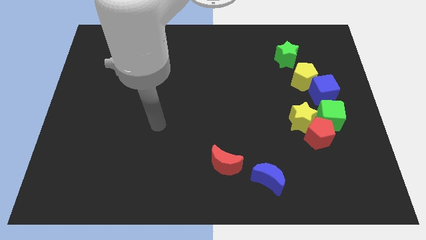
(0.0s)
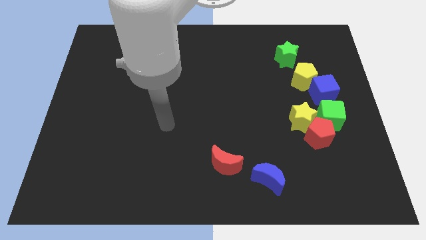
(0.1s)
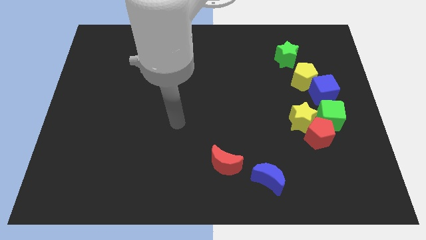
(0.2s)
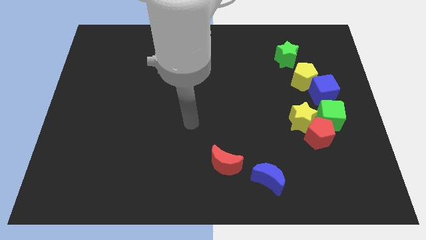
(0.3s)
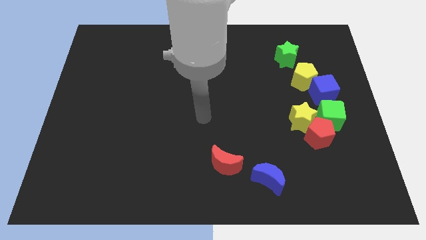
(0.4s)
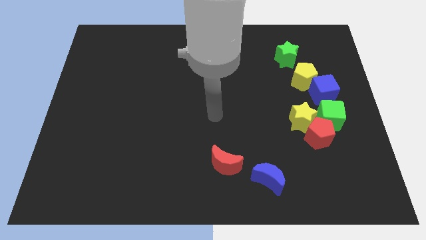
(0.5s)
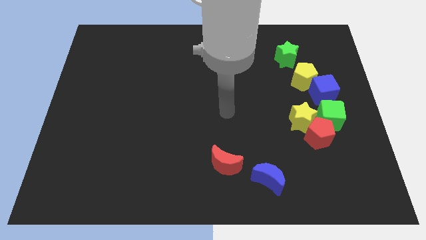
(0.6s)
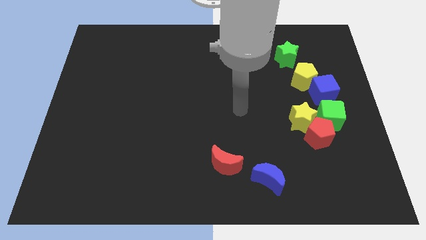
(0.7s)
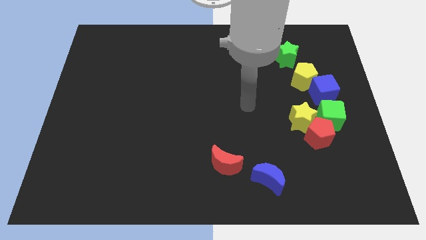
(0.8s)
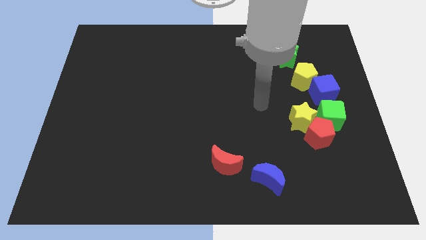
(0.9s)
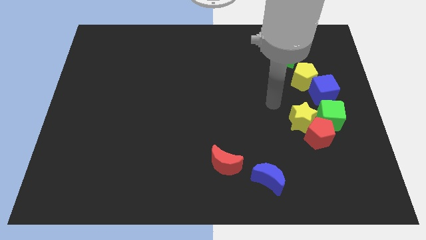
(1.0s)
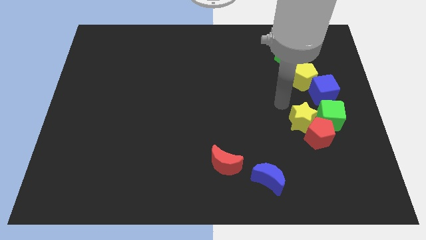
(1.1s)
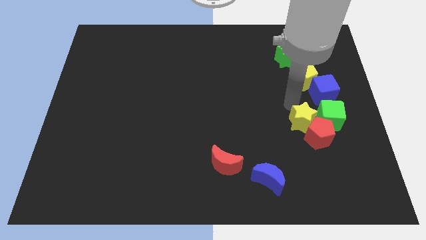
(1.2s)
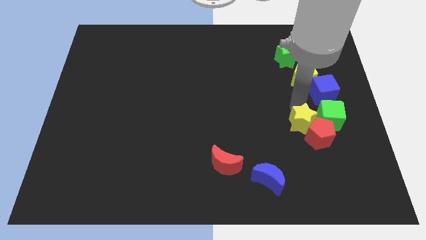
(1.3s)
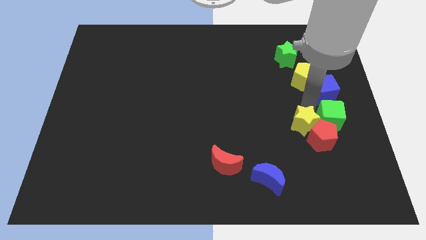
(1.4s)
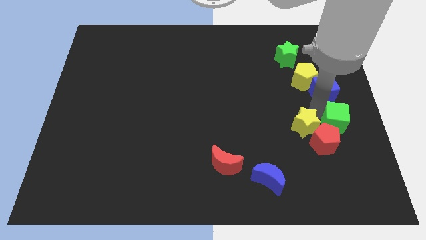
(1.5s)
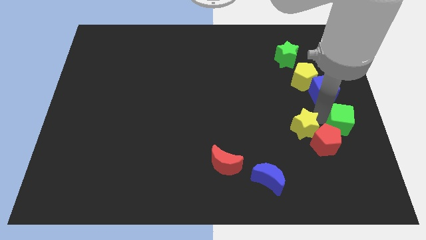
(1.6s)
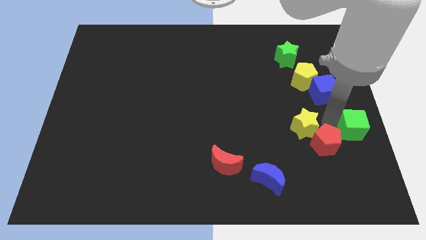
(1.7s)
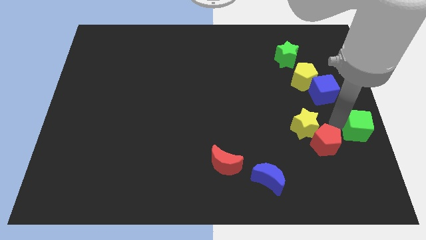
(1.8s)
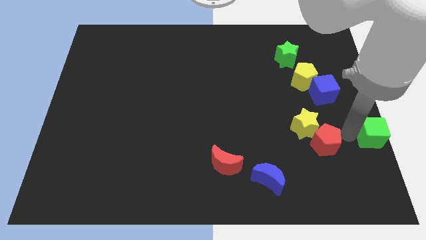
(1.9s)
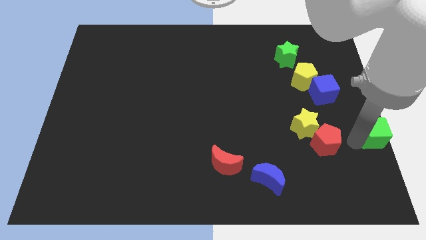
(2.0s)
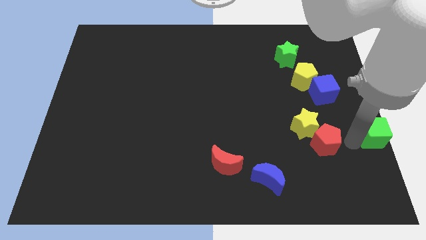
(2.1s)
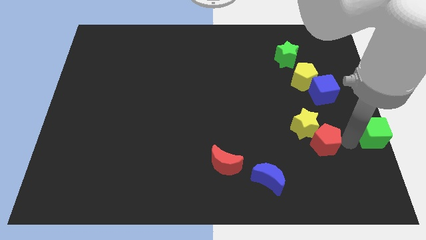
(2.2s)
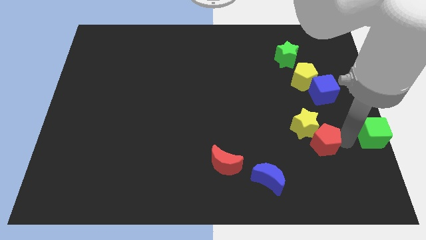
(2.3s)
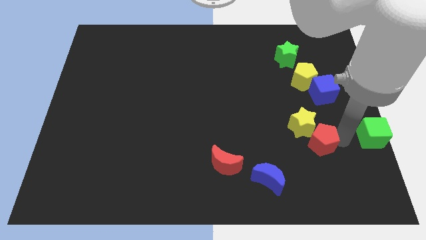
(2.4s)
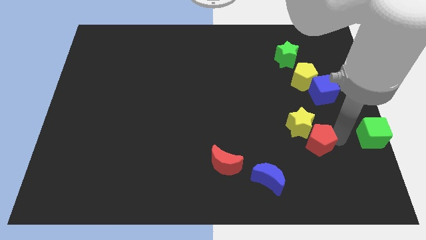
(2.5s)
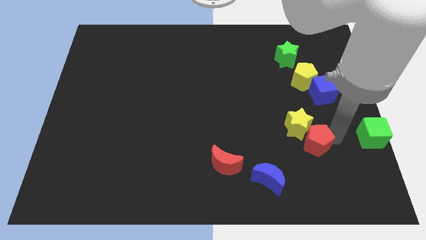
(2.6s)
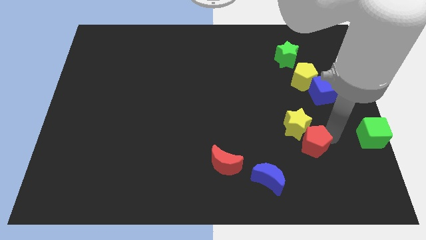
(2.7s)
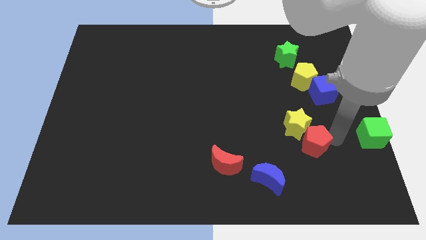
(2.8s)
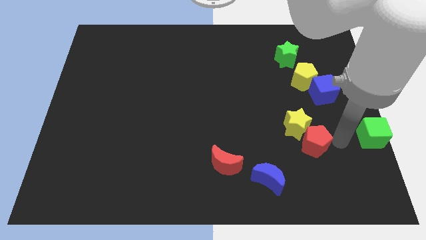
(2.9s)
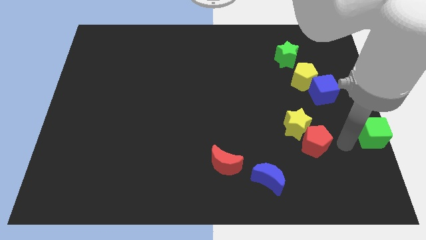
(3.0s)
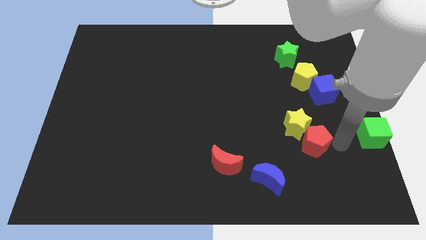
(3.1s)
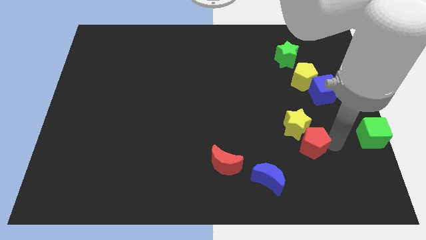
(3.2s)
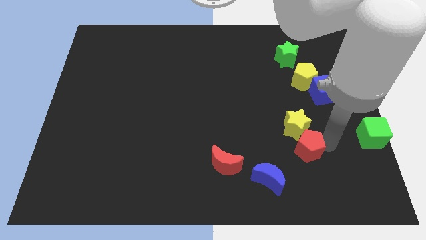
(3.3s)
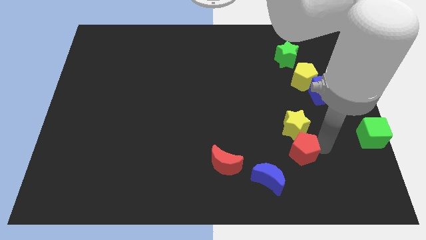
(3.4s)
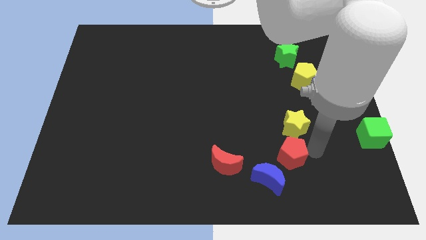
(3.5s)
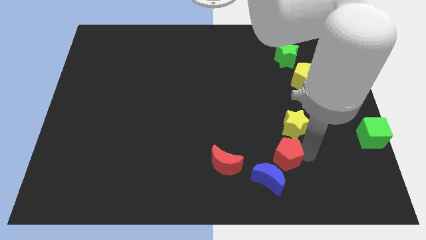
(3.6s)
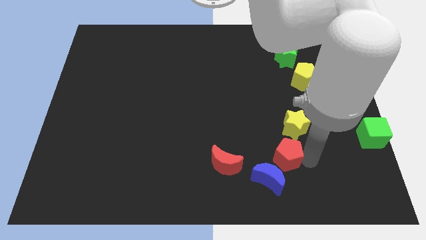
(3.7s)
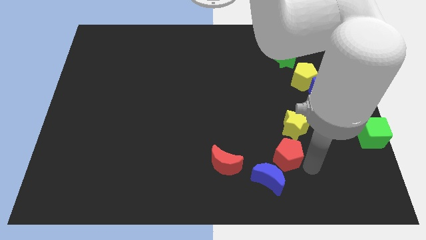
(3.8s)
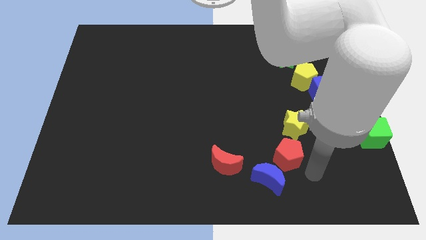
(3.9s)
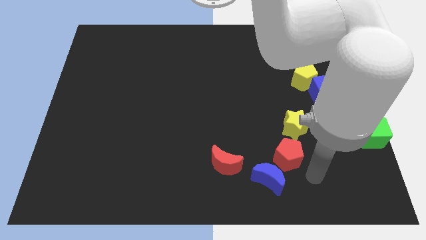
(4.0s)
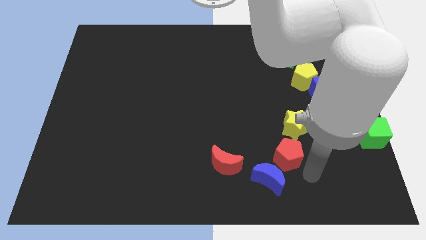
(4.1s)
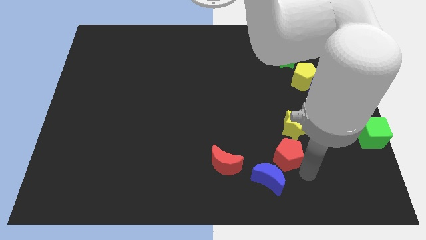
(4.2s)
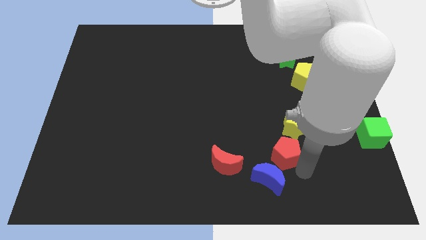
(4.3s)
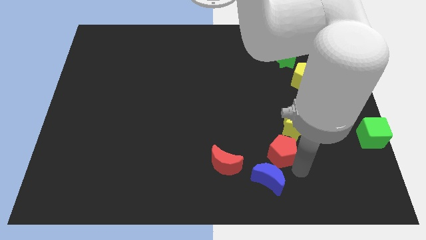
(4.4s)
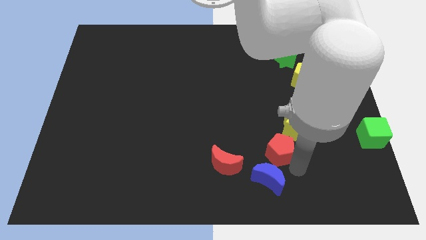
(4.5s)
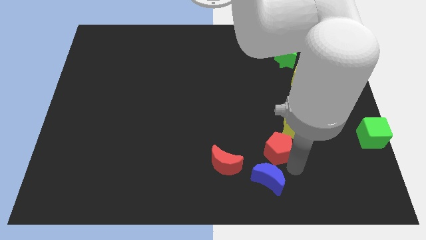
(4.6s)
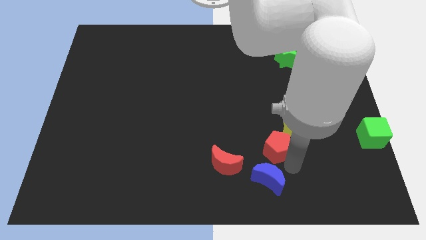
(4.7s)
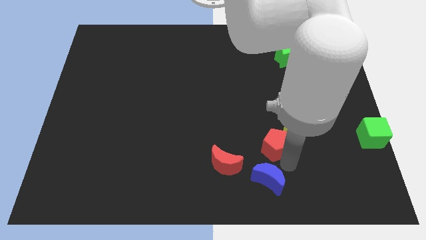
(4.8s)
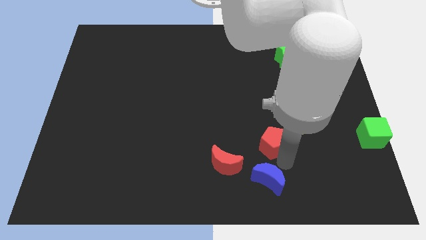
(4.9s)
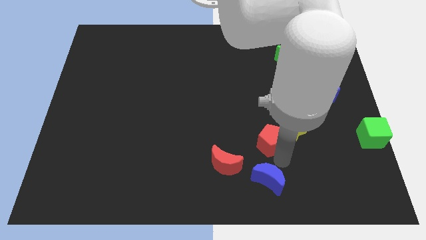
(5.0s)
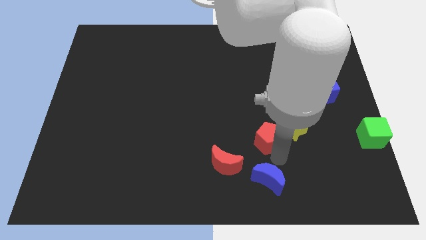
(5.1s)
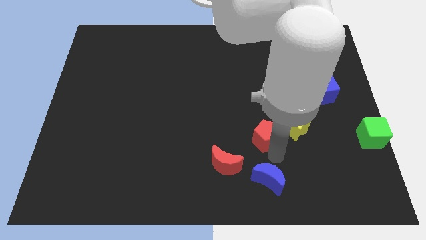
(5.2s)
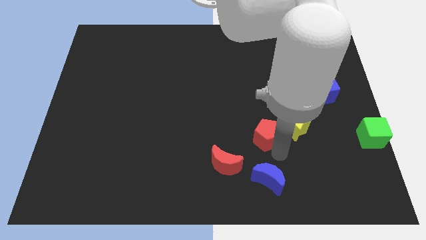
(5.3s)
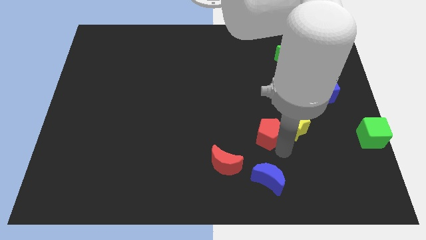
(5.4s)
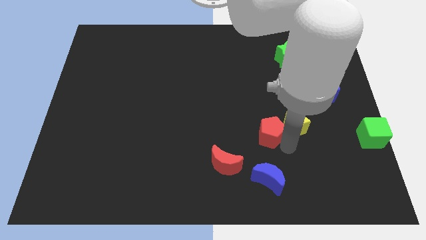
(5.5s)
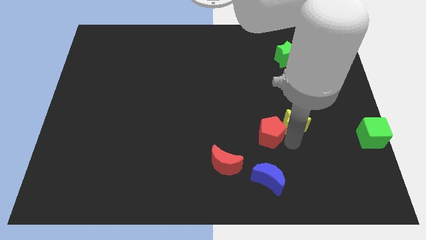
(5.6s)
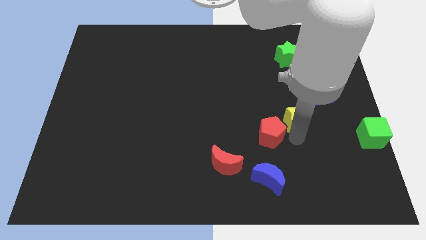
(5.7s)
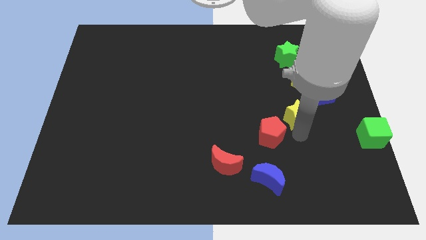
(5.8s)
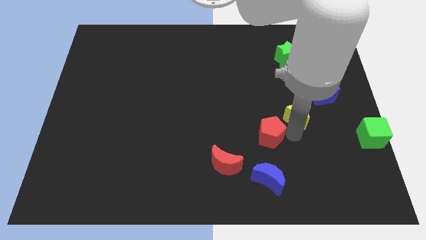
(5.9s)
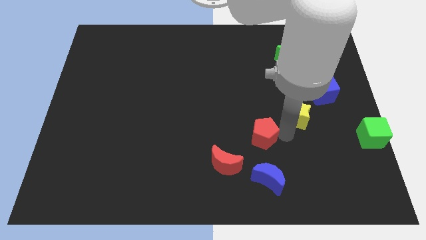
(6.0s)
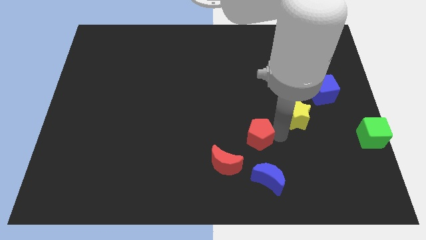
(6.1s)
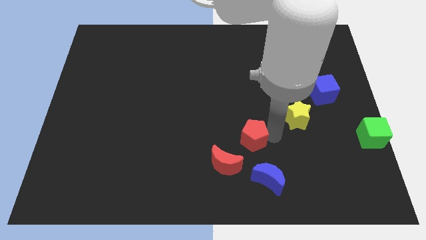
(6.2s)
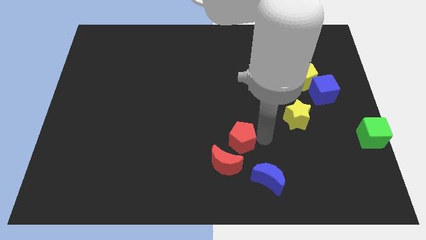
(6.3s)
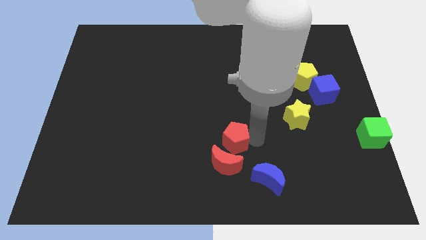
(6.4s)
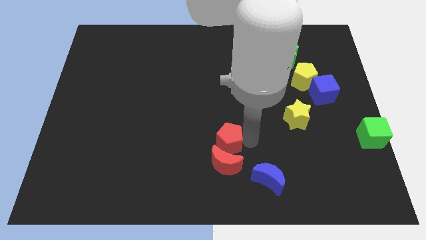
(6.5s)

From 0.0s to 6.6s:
move the red pentagon to the left

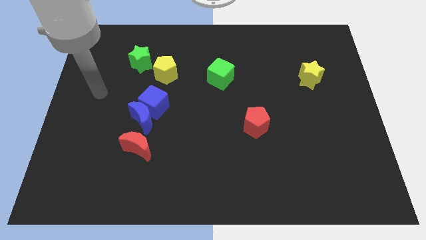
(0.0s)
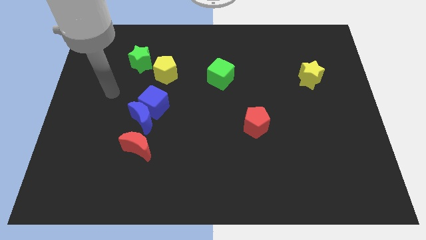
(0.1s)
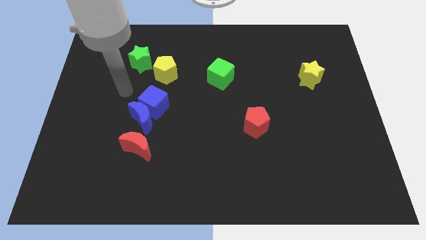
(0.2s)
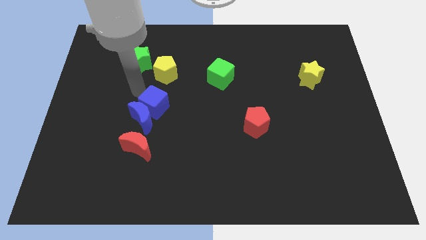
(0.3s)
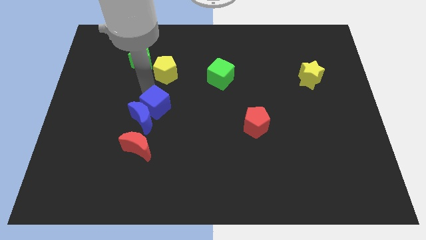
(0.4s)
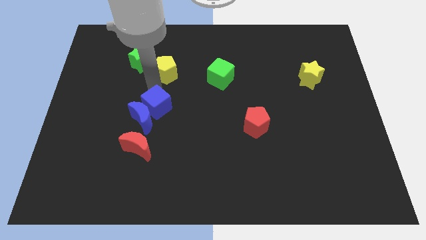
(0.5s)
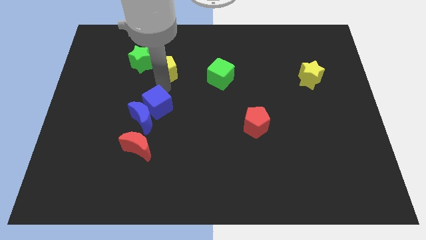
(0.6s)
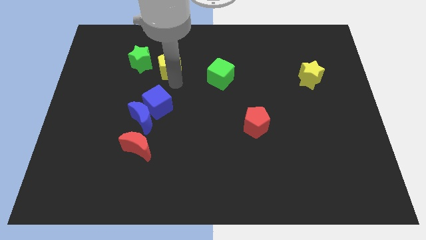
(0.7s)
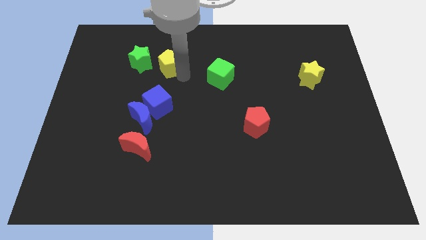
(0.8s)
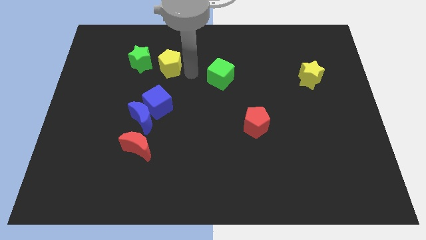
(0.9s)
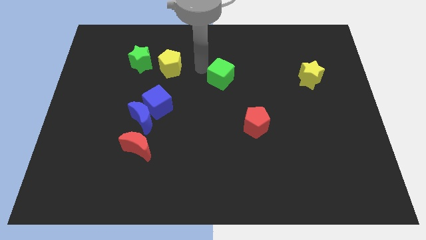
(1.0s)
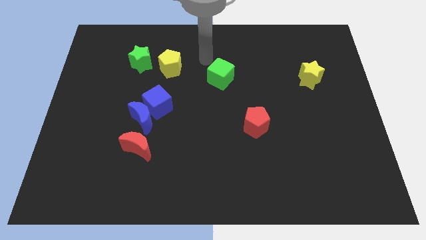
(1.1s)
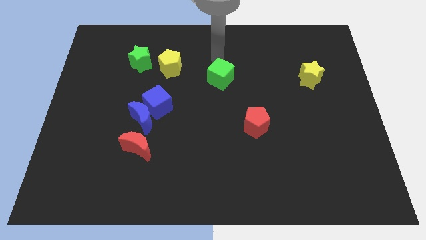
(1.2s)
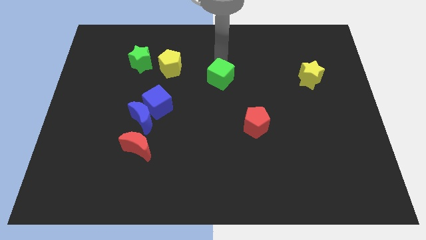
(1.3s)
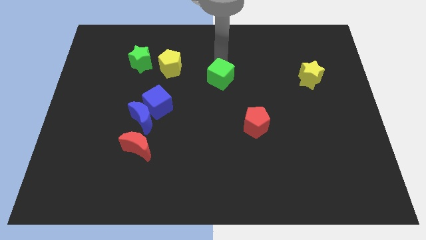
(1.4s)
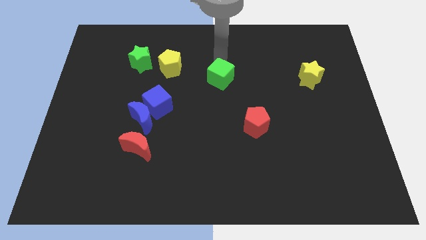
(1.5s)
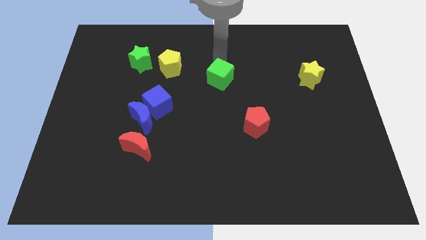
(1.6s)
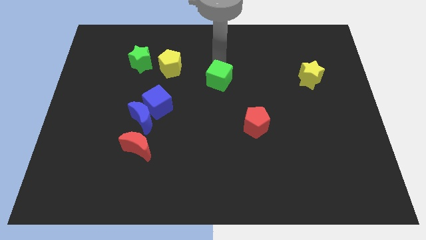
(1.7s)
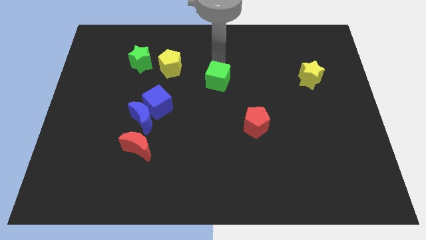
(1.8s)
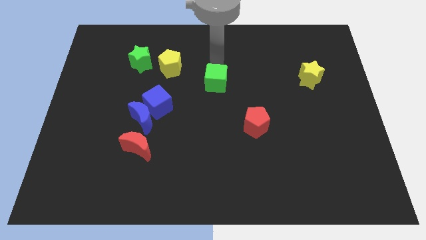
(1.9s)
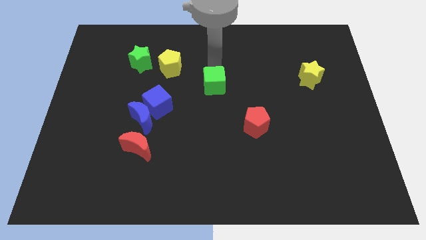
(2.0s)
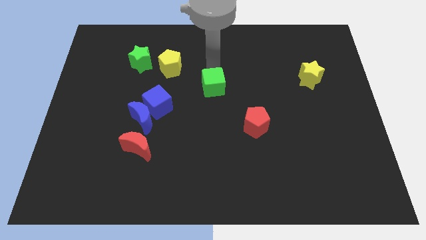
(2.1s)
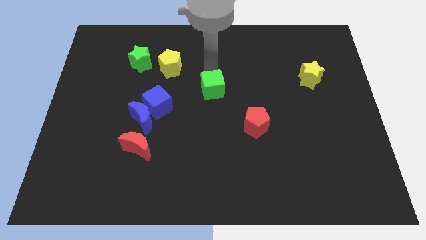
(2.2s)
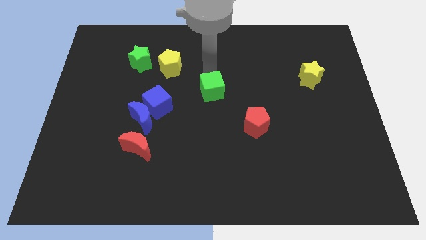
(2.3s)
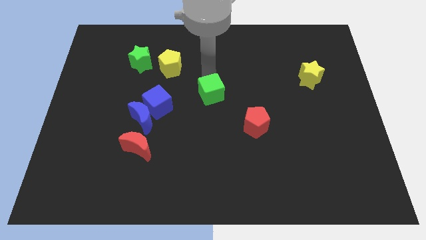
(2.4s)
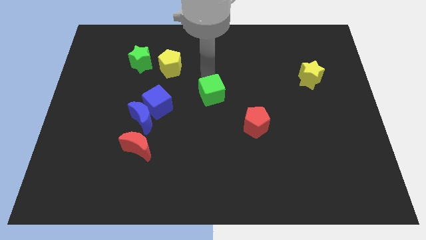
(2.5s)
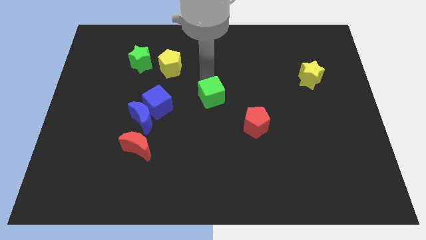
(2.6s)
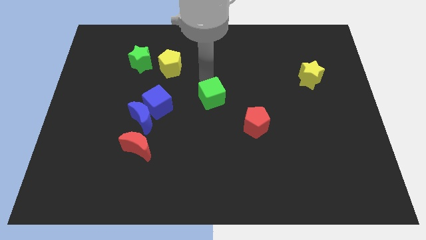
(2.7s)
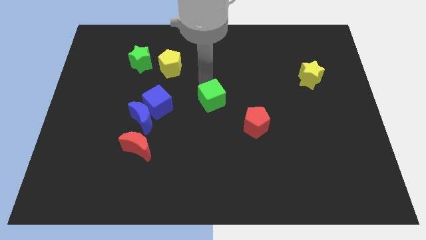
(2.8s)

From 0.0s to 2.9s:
move the green cube a little down
